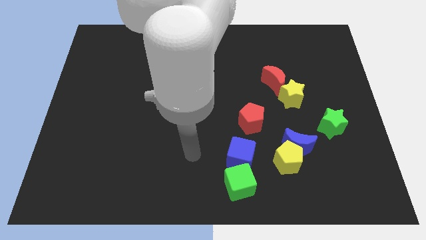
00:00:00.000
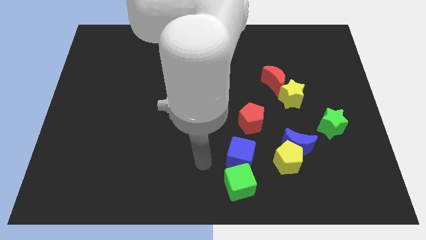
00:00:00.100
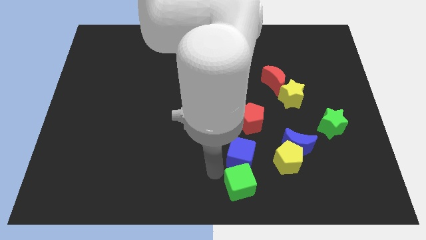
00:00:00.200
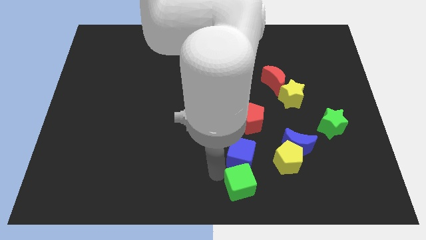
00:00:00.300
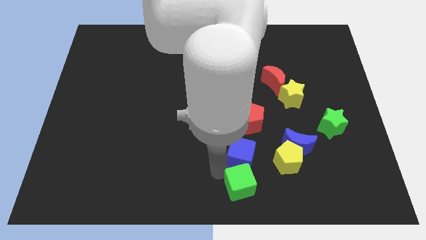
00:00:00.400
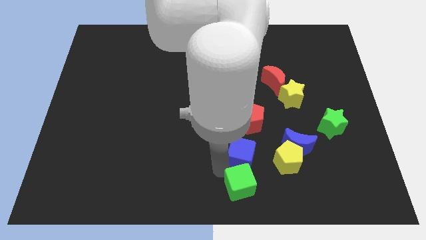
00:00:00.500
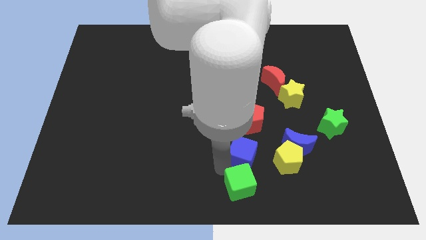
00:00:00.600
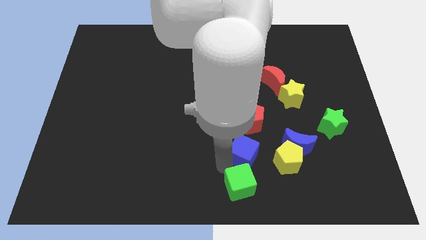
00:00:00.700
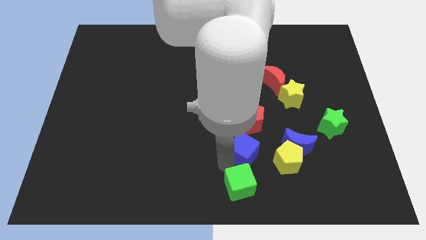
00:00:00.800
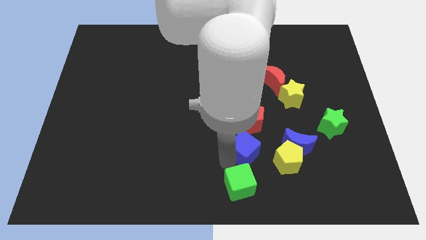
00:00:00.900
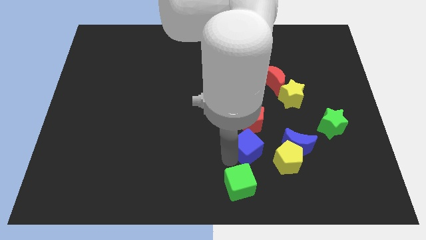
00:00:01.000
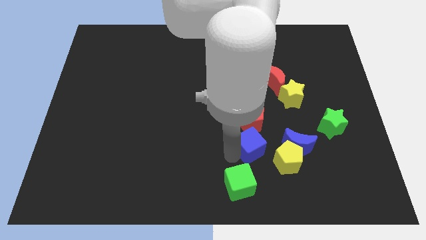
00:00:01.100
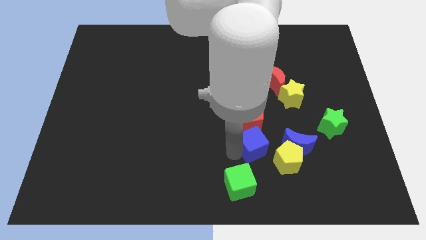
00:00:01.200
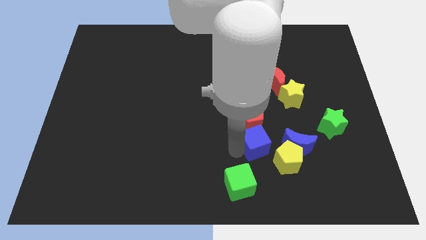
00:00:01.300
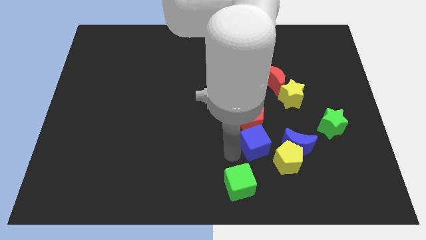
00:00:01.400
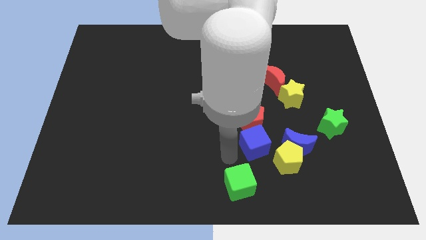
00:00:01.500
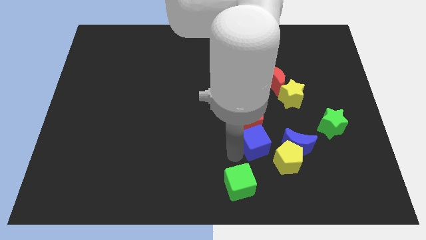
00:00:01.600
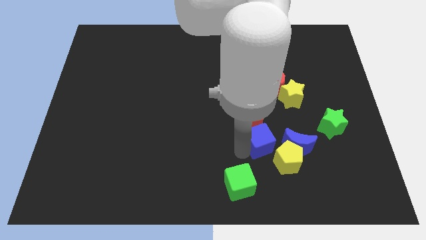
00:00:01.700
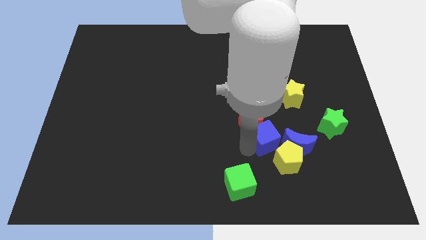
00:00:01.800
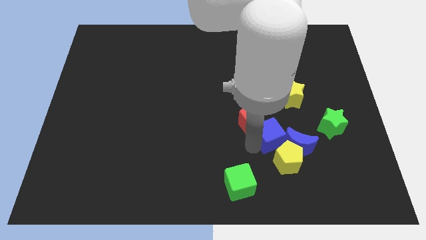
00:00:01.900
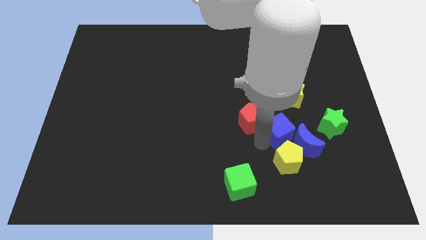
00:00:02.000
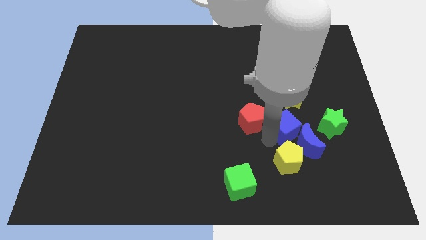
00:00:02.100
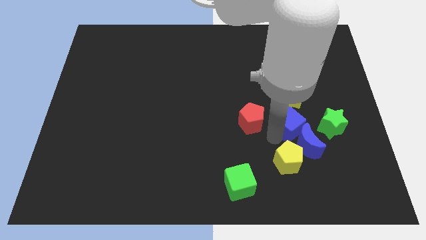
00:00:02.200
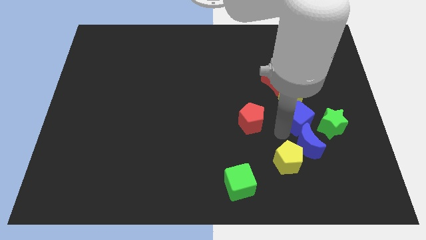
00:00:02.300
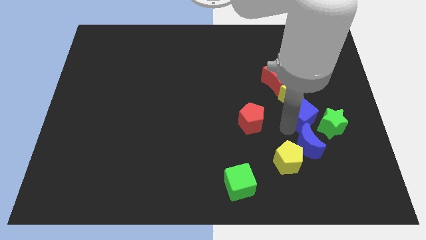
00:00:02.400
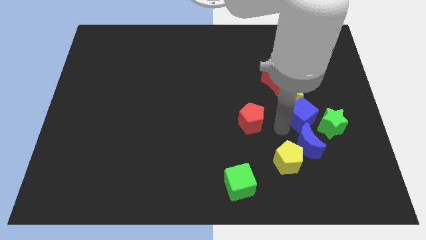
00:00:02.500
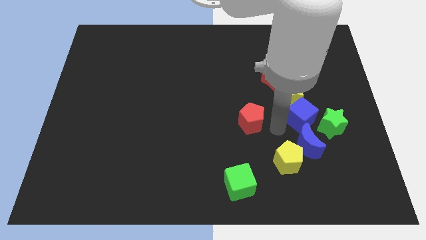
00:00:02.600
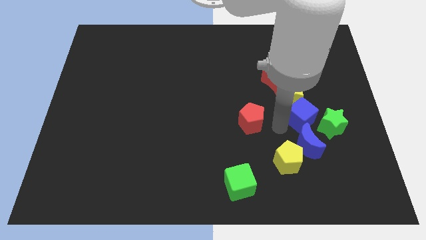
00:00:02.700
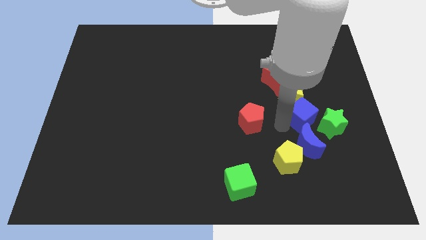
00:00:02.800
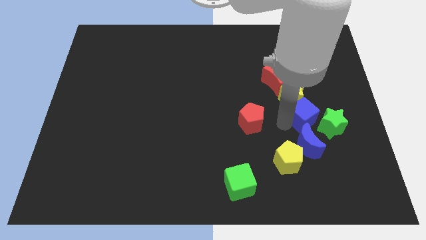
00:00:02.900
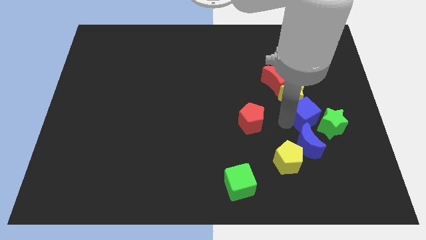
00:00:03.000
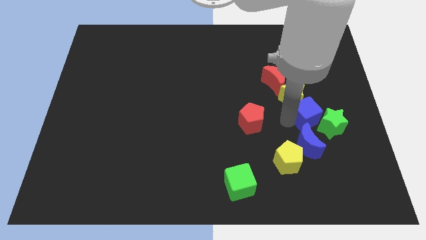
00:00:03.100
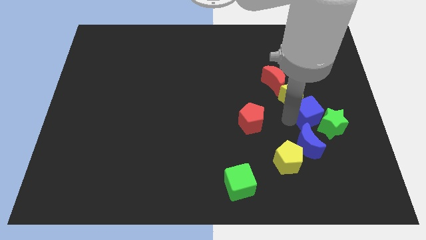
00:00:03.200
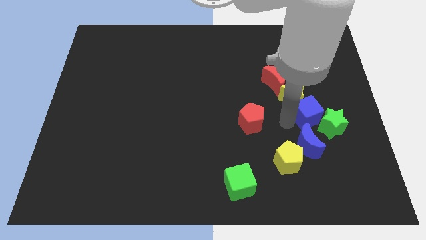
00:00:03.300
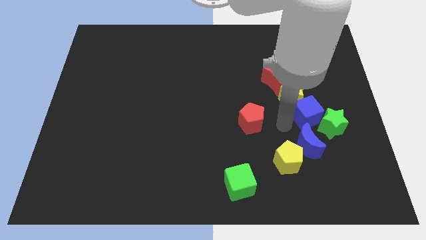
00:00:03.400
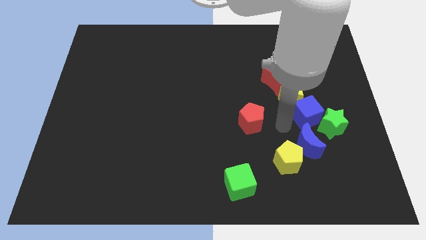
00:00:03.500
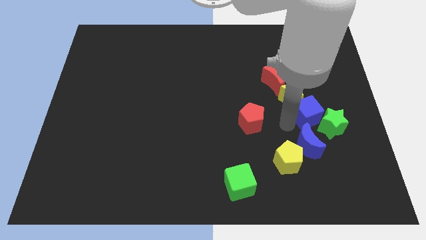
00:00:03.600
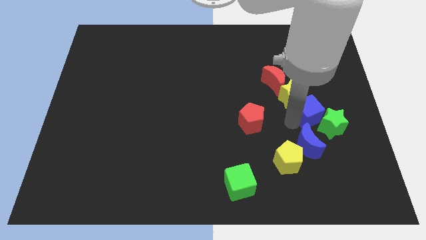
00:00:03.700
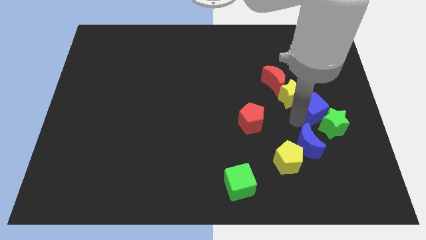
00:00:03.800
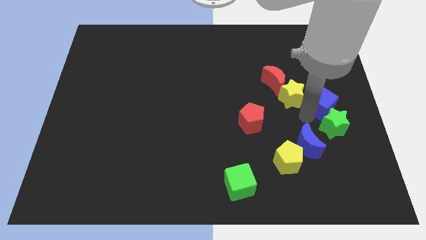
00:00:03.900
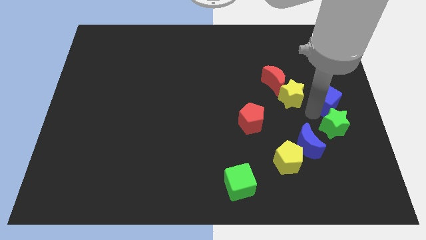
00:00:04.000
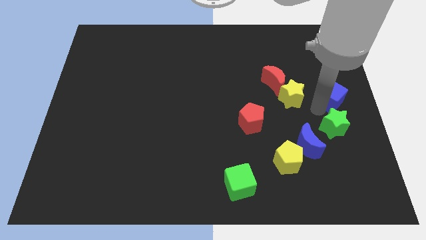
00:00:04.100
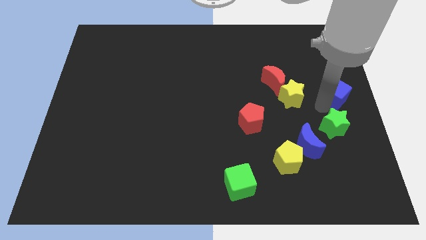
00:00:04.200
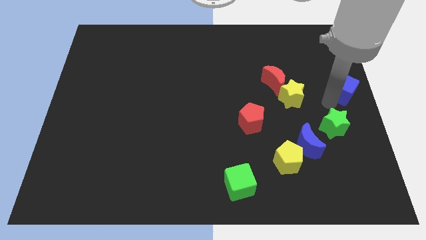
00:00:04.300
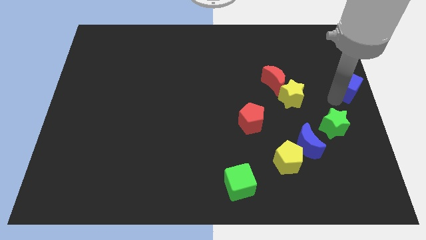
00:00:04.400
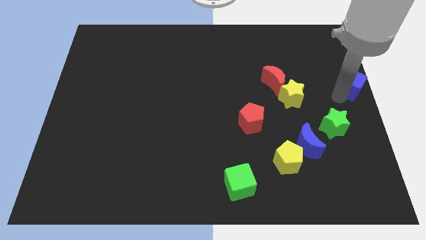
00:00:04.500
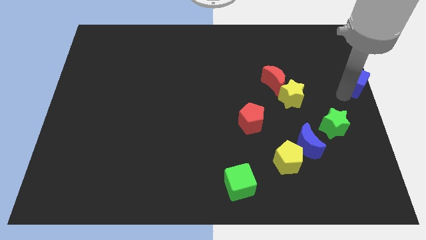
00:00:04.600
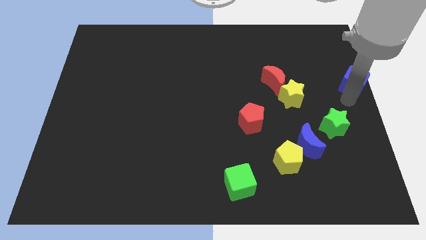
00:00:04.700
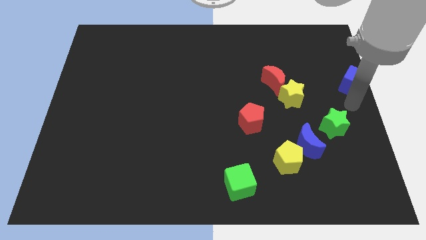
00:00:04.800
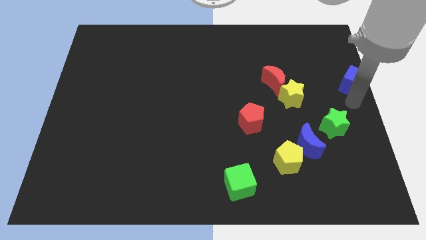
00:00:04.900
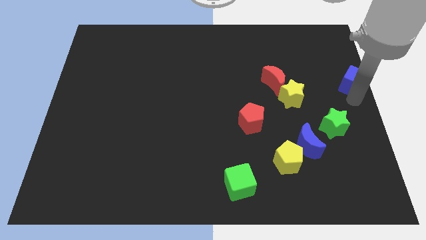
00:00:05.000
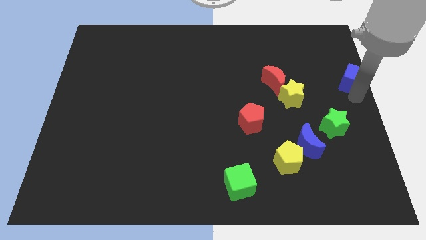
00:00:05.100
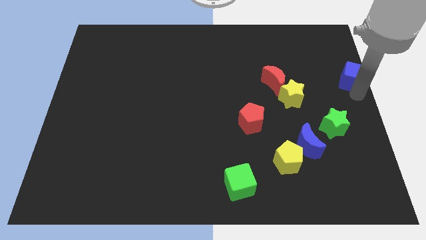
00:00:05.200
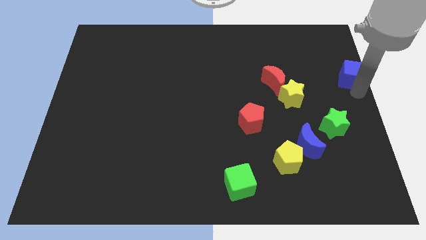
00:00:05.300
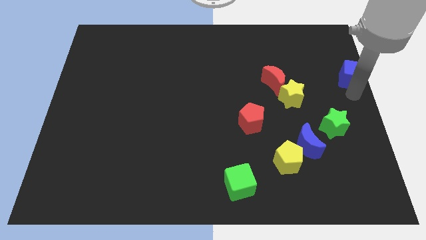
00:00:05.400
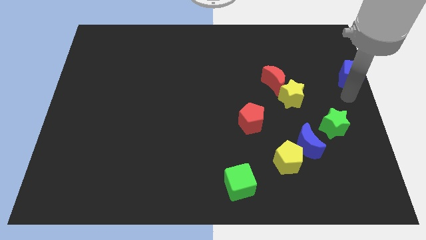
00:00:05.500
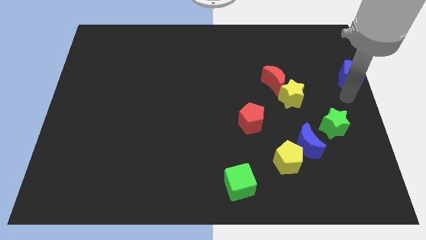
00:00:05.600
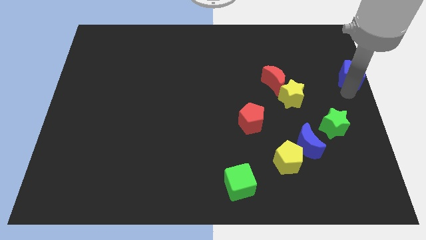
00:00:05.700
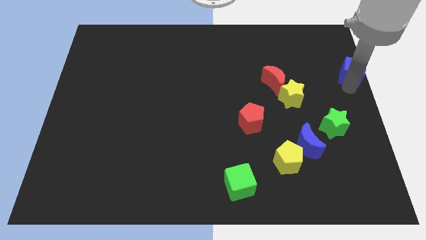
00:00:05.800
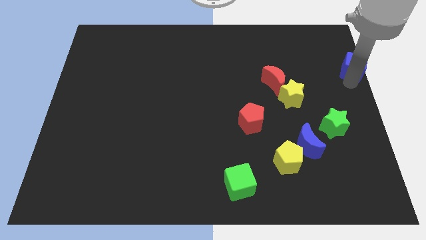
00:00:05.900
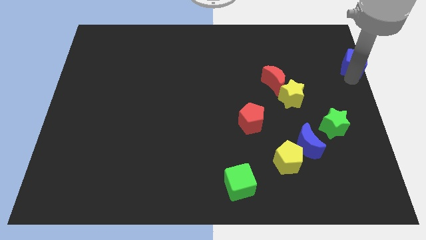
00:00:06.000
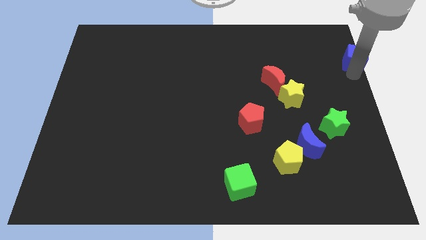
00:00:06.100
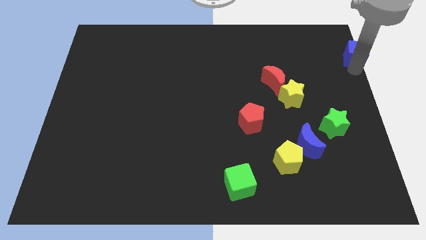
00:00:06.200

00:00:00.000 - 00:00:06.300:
put the blue cube to the top right corner

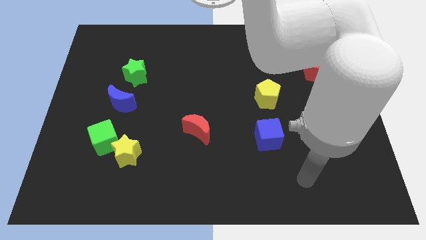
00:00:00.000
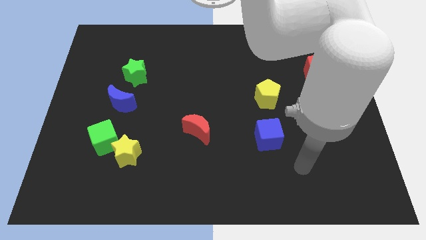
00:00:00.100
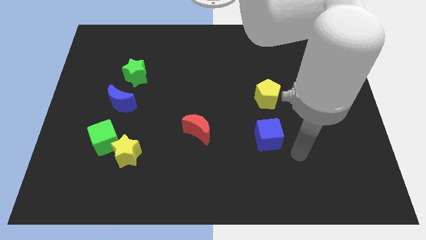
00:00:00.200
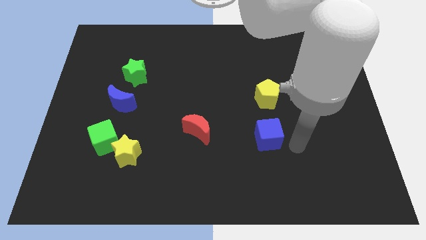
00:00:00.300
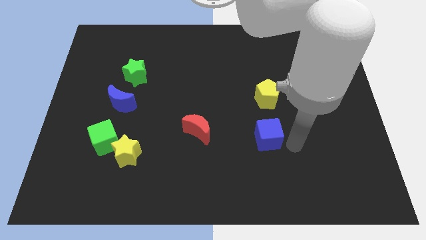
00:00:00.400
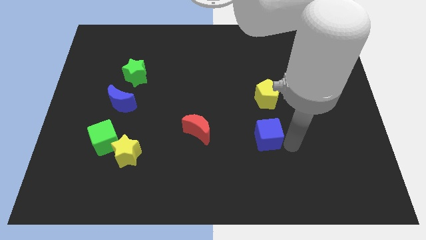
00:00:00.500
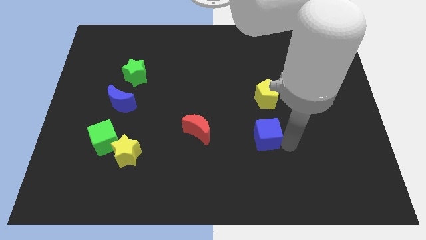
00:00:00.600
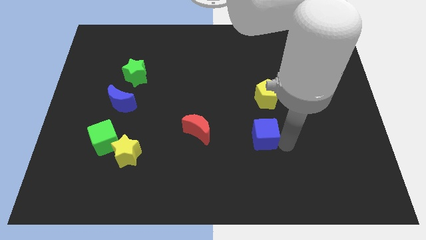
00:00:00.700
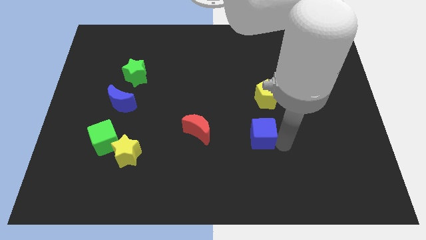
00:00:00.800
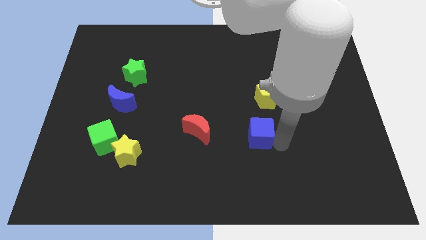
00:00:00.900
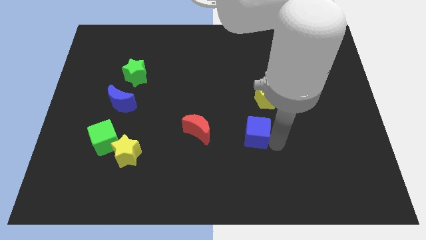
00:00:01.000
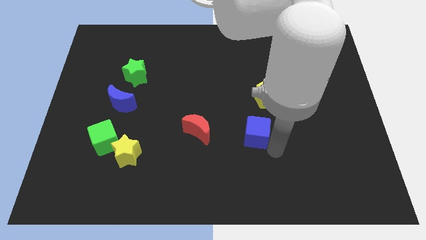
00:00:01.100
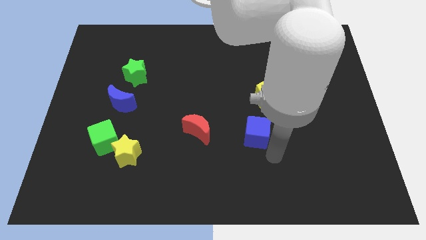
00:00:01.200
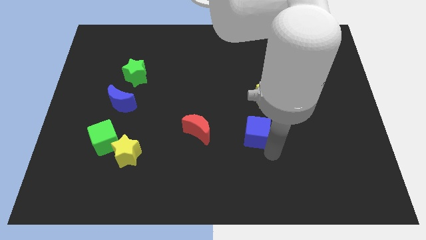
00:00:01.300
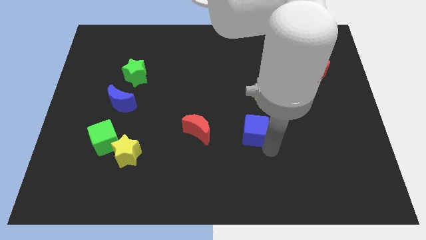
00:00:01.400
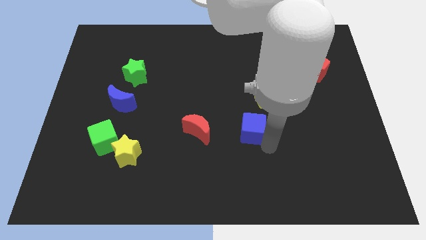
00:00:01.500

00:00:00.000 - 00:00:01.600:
slide the blue cube to the middle of the board
